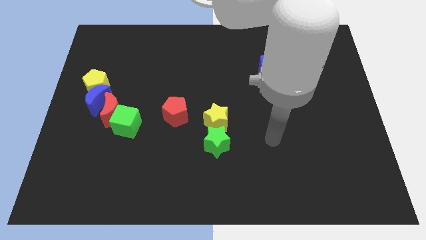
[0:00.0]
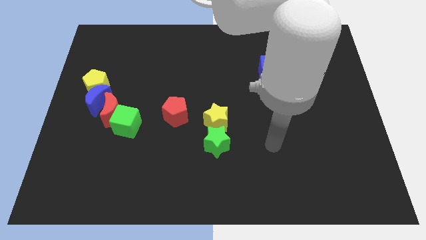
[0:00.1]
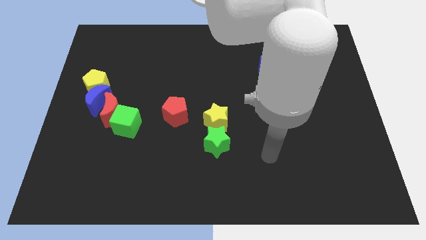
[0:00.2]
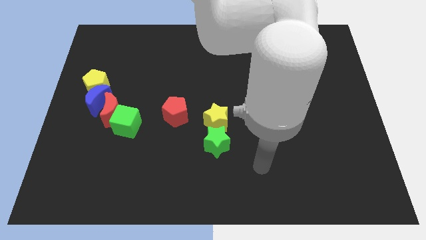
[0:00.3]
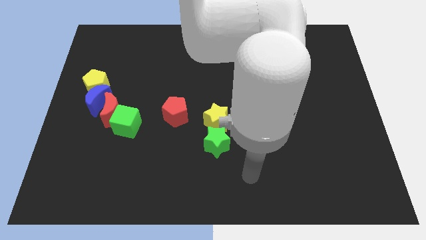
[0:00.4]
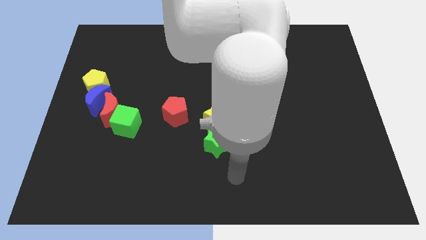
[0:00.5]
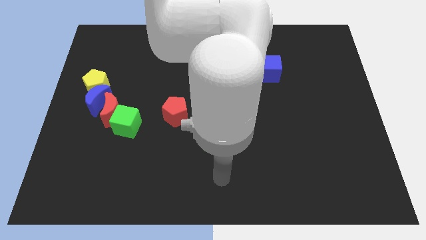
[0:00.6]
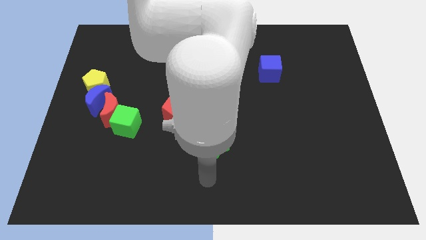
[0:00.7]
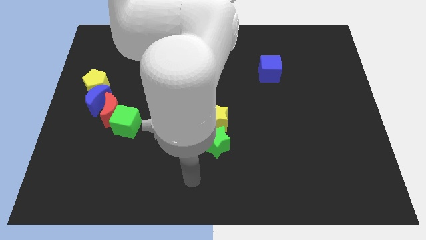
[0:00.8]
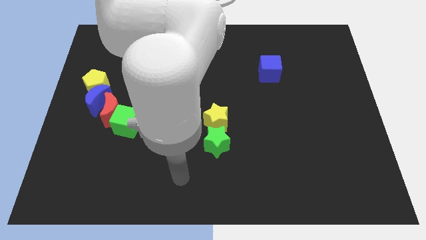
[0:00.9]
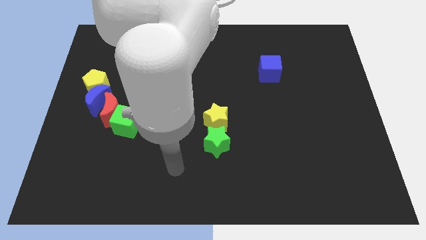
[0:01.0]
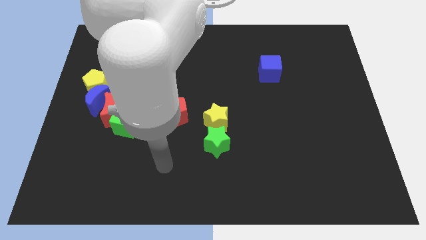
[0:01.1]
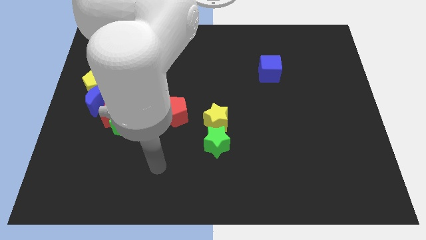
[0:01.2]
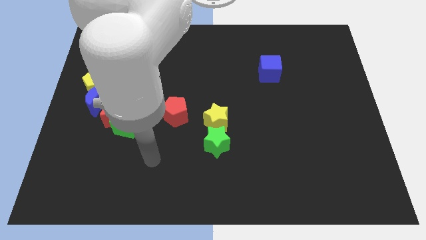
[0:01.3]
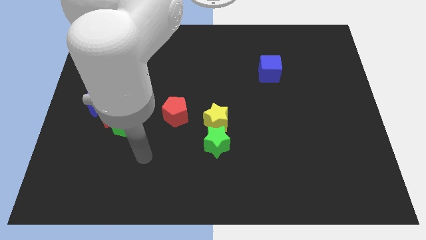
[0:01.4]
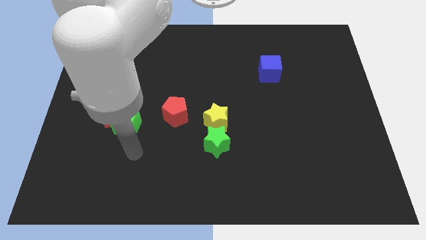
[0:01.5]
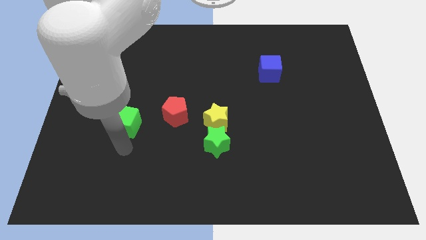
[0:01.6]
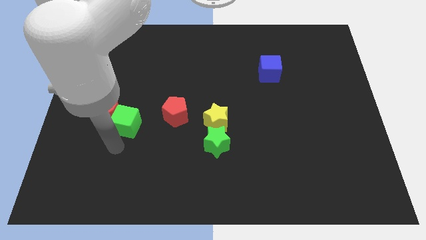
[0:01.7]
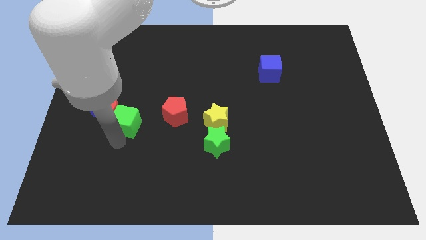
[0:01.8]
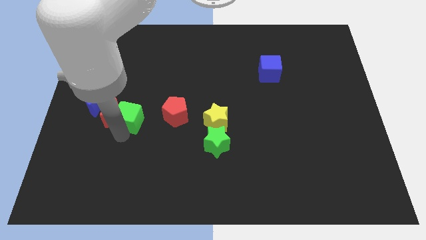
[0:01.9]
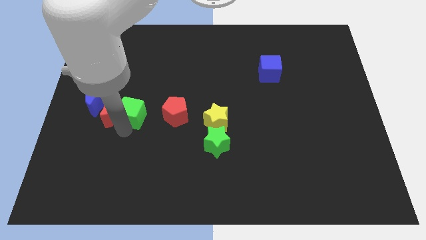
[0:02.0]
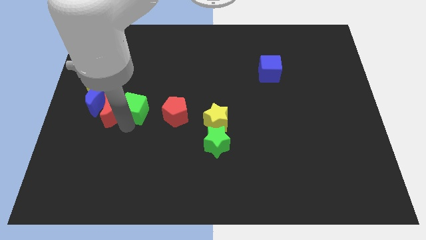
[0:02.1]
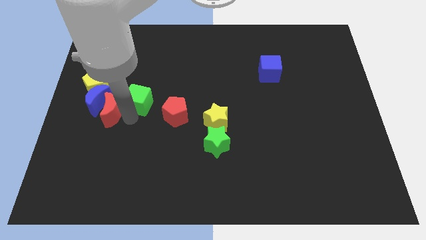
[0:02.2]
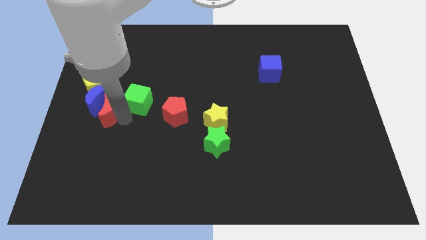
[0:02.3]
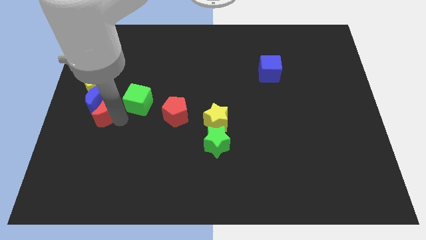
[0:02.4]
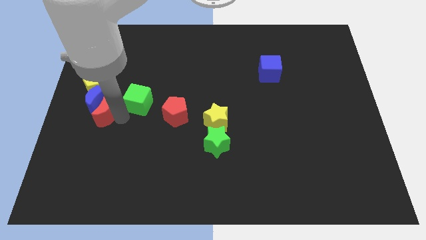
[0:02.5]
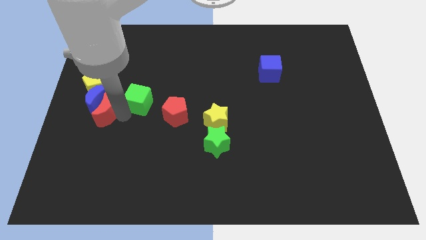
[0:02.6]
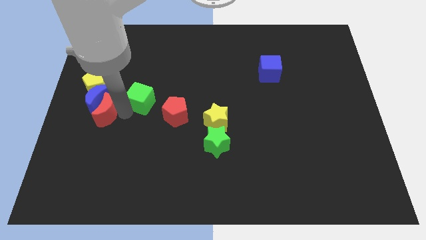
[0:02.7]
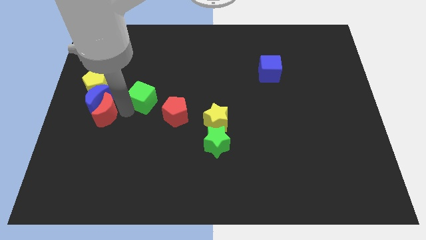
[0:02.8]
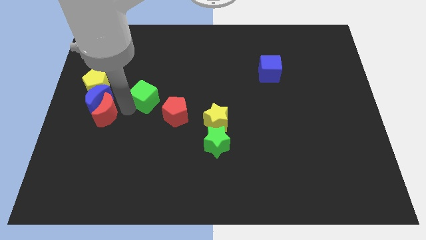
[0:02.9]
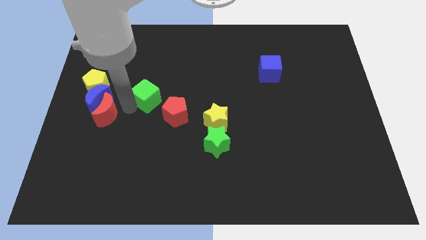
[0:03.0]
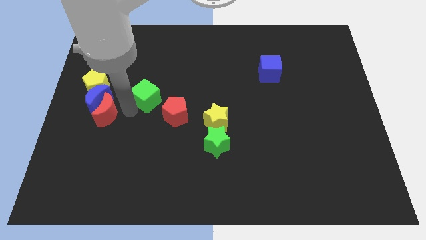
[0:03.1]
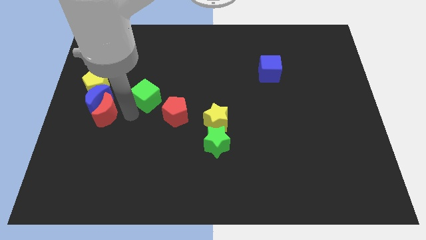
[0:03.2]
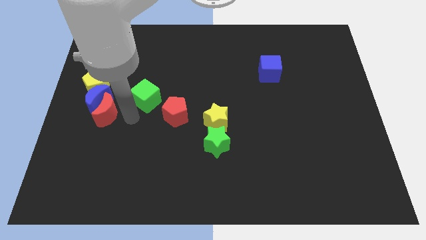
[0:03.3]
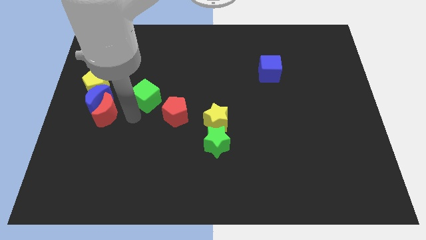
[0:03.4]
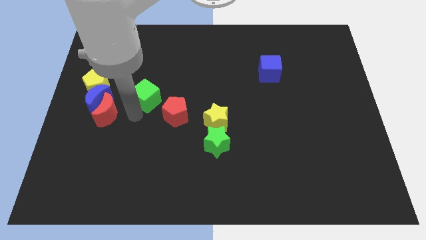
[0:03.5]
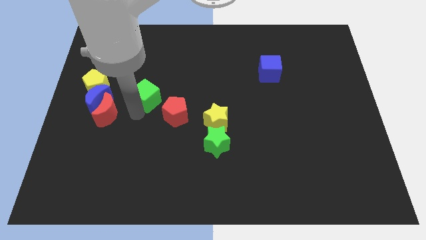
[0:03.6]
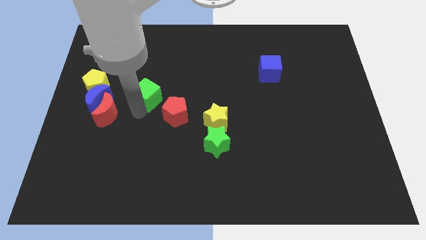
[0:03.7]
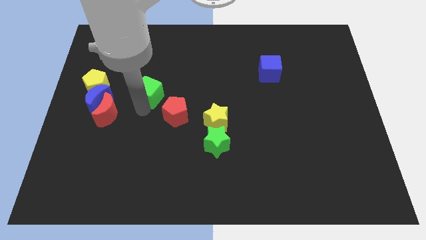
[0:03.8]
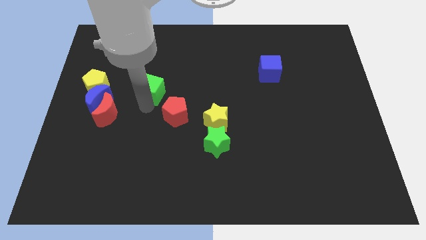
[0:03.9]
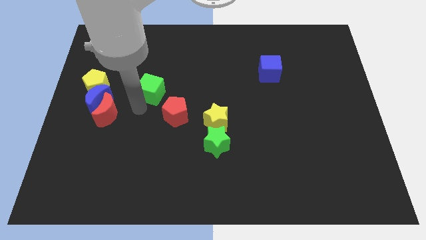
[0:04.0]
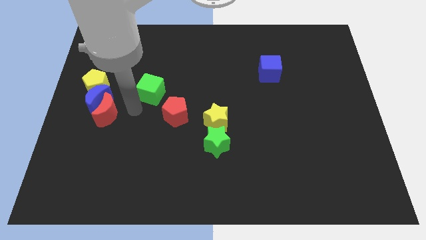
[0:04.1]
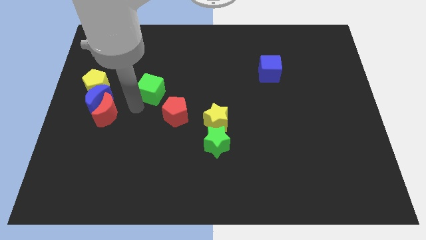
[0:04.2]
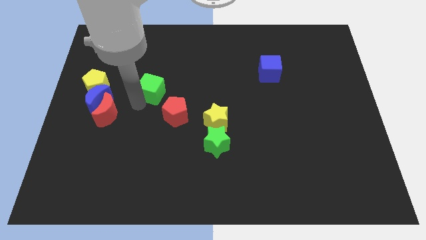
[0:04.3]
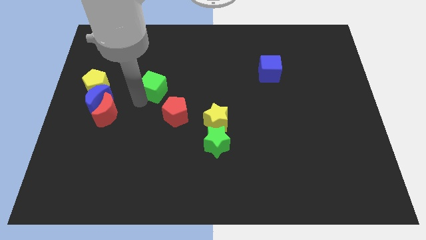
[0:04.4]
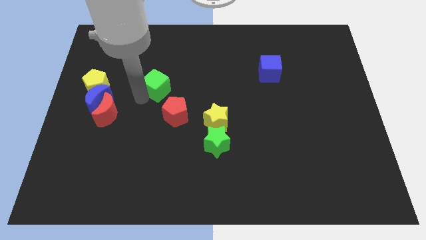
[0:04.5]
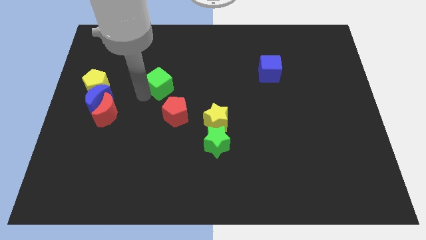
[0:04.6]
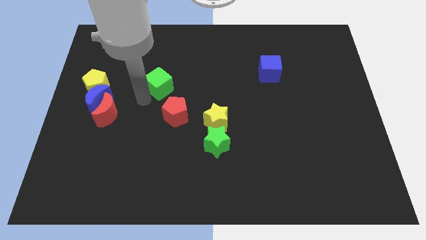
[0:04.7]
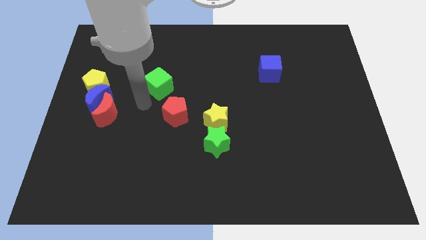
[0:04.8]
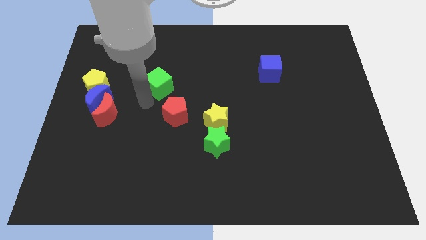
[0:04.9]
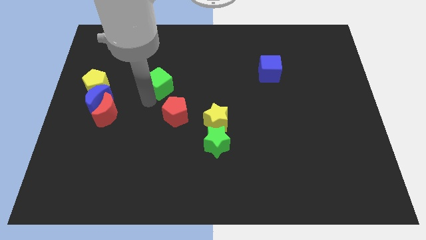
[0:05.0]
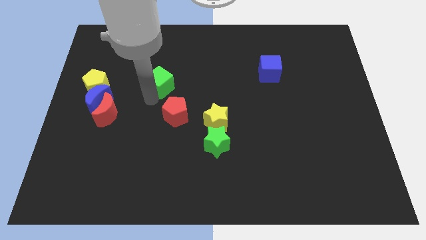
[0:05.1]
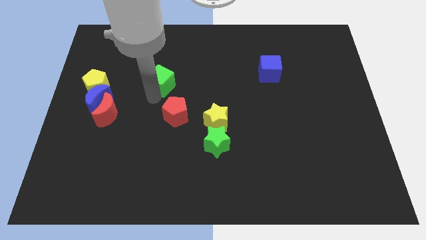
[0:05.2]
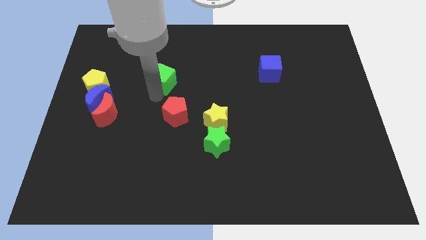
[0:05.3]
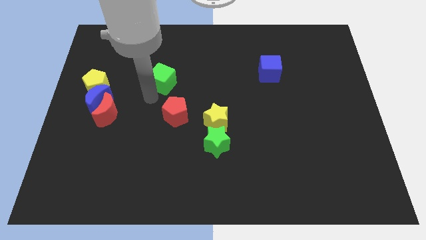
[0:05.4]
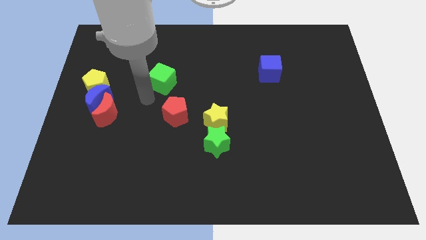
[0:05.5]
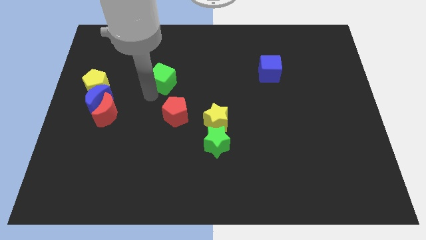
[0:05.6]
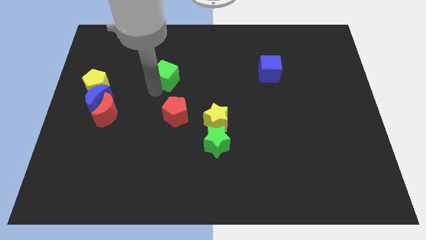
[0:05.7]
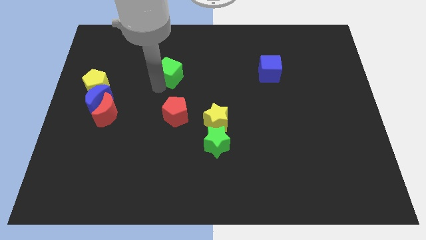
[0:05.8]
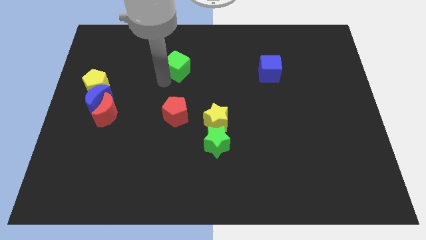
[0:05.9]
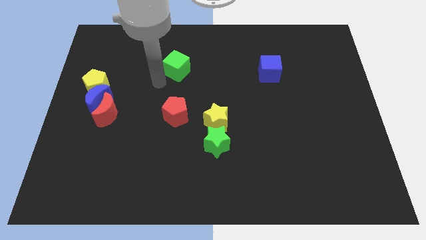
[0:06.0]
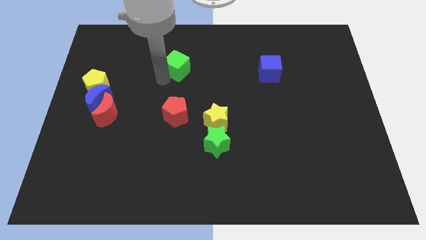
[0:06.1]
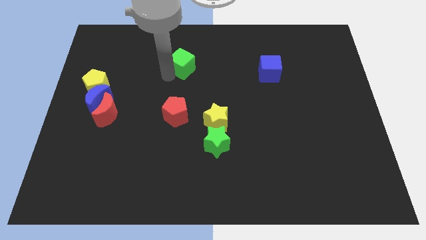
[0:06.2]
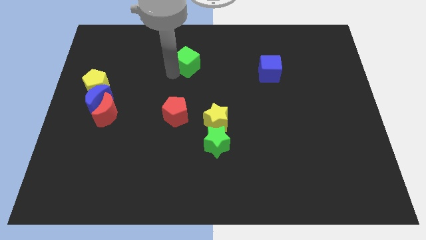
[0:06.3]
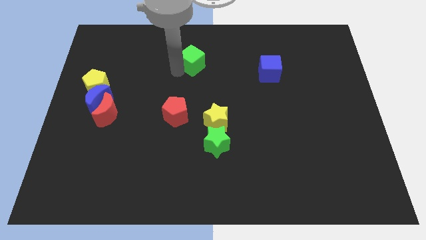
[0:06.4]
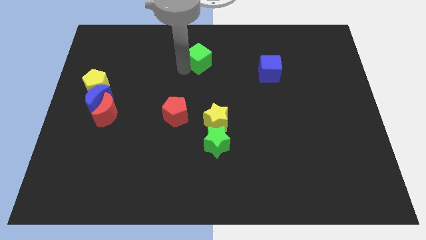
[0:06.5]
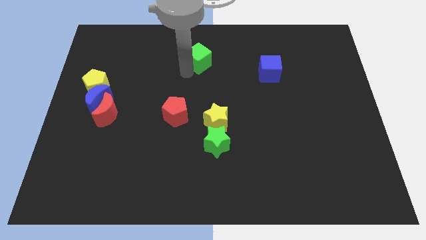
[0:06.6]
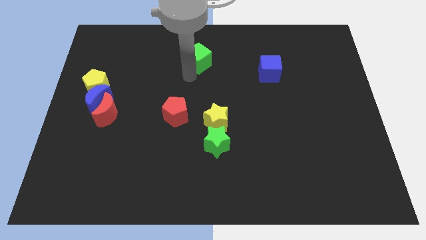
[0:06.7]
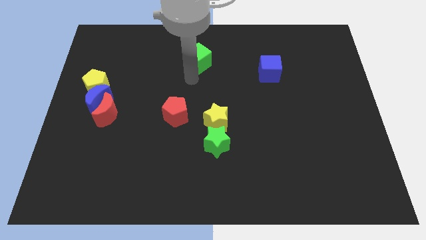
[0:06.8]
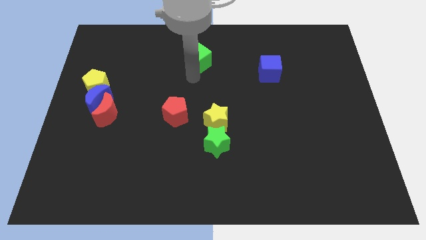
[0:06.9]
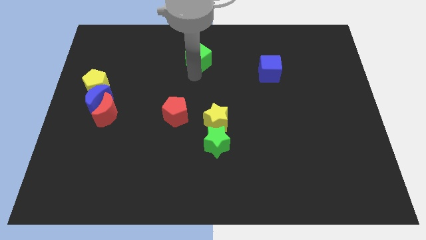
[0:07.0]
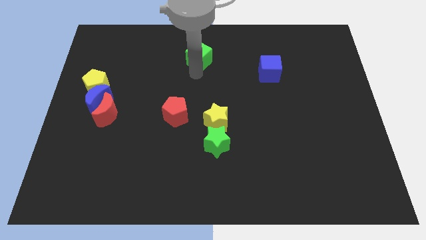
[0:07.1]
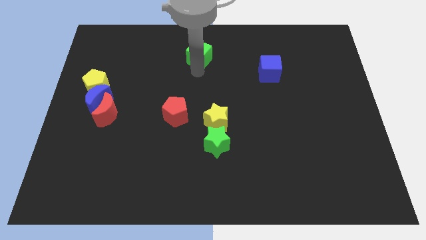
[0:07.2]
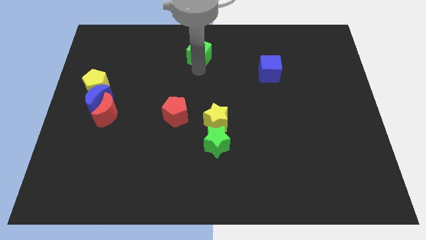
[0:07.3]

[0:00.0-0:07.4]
slide the green cube to the towards your base
